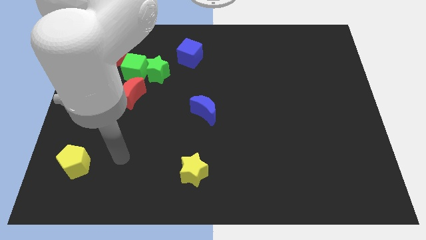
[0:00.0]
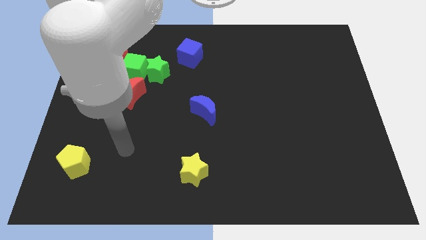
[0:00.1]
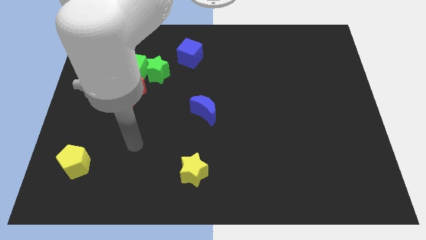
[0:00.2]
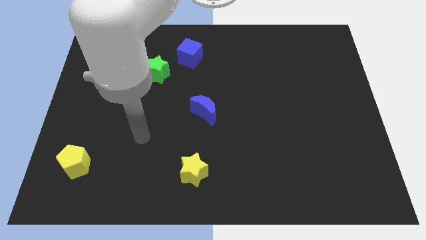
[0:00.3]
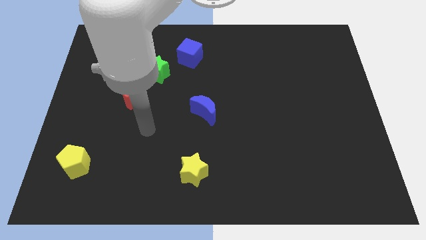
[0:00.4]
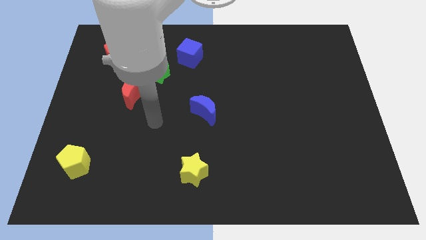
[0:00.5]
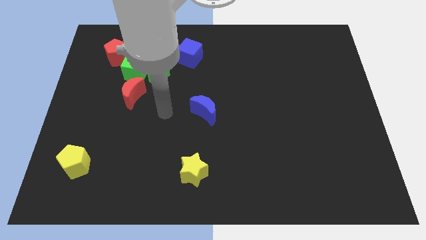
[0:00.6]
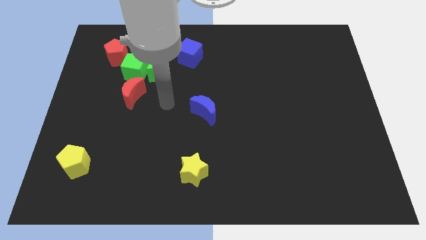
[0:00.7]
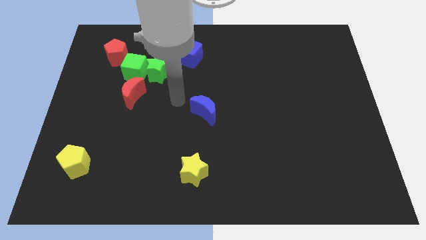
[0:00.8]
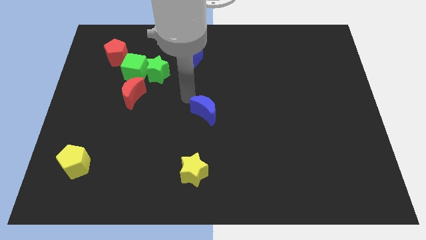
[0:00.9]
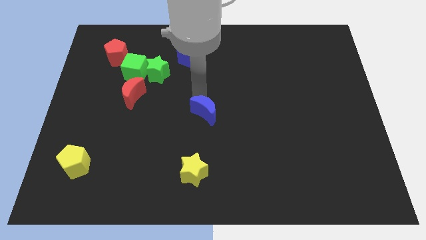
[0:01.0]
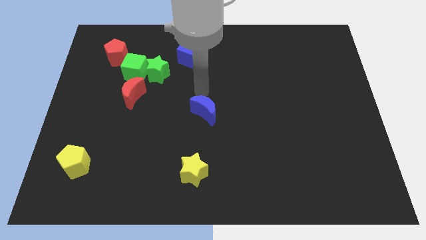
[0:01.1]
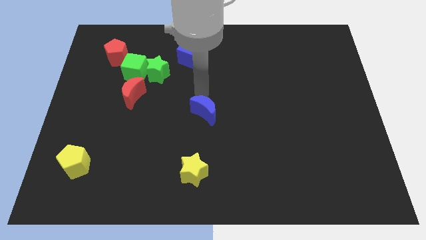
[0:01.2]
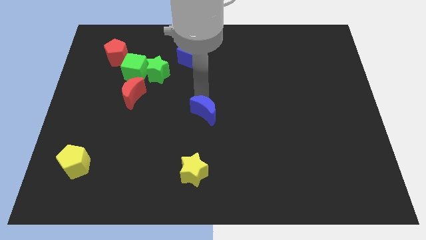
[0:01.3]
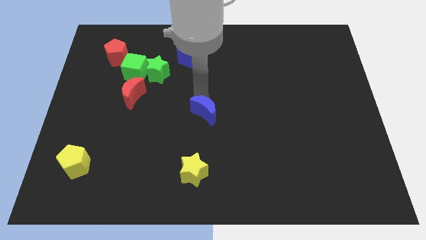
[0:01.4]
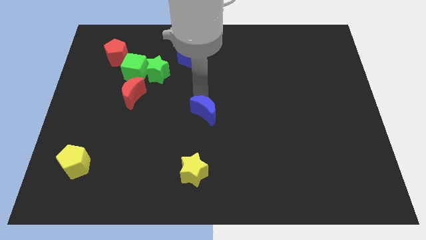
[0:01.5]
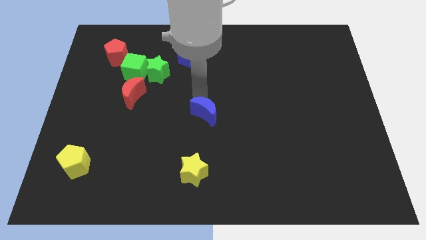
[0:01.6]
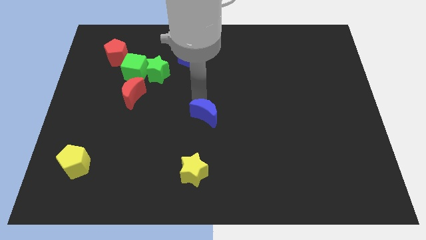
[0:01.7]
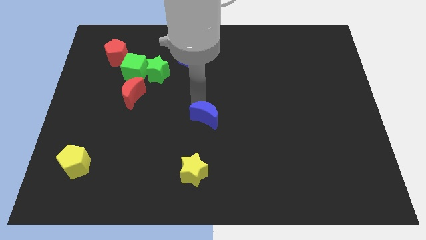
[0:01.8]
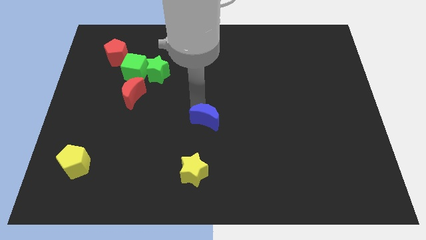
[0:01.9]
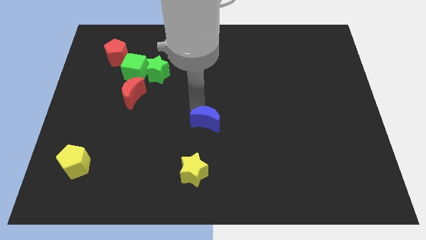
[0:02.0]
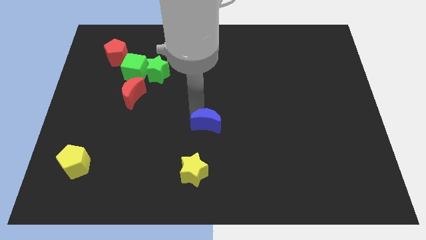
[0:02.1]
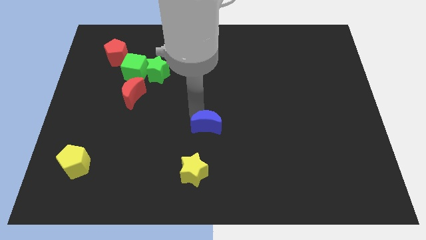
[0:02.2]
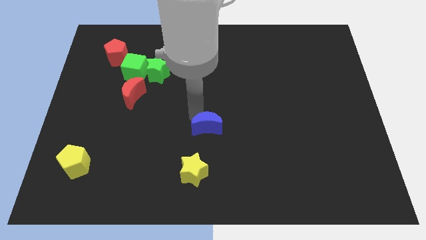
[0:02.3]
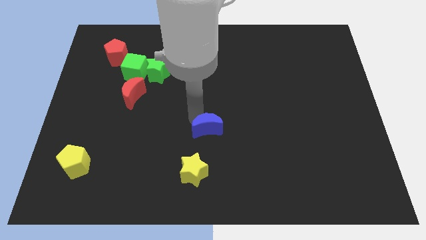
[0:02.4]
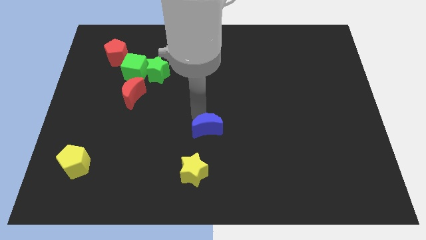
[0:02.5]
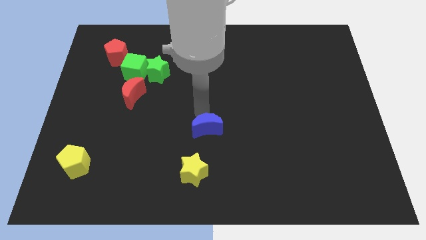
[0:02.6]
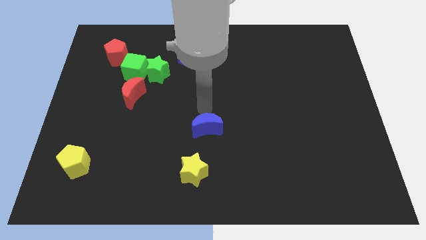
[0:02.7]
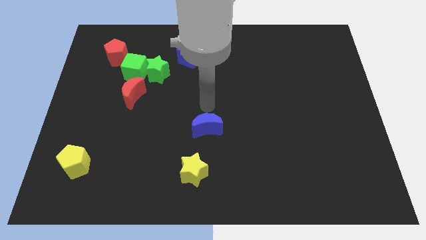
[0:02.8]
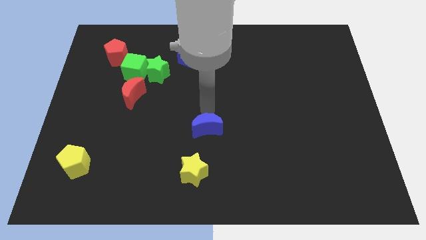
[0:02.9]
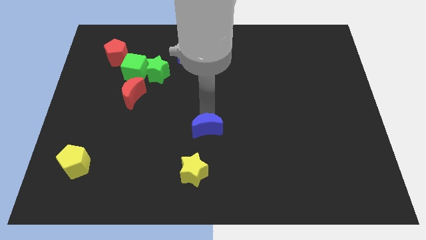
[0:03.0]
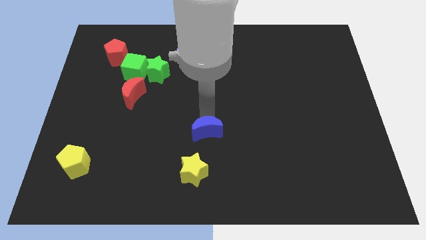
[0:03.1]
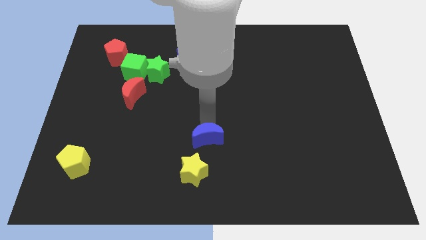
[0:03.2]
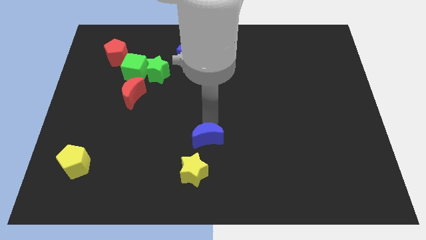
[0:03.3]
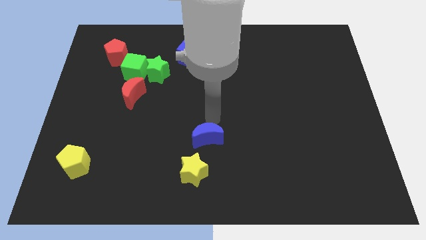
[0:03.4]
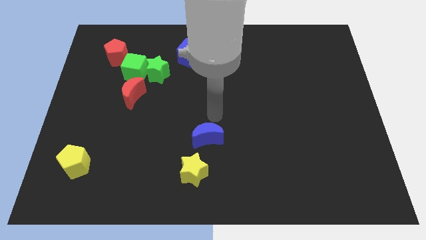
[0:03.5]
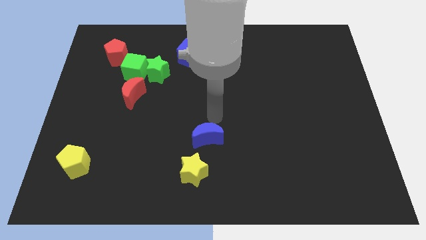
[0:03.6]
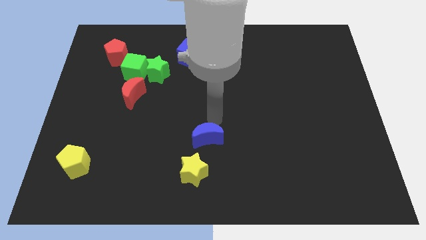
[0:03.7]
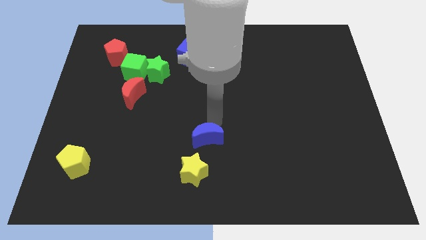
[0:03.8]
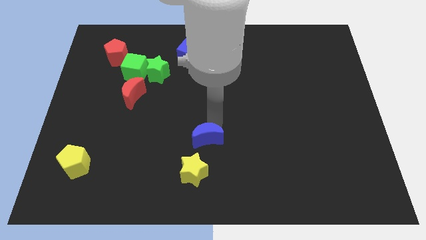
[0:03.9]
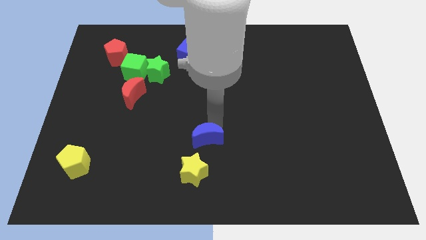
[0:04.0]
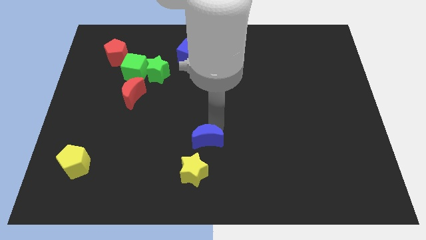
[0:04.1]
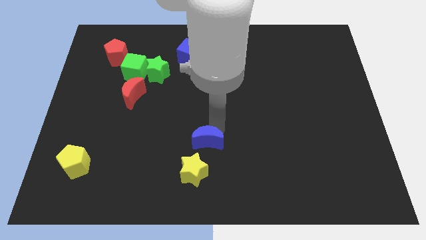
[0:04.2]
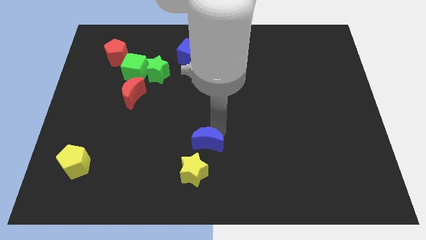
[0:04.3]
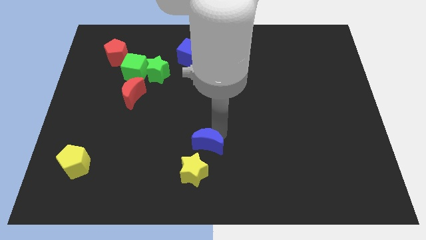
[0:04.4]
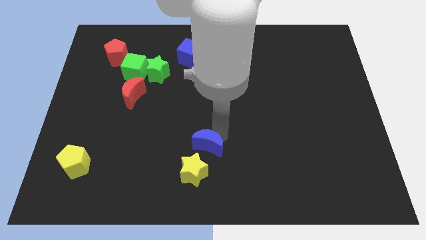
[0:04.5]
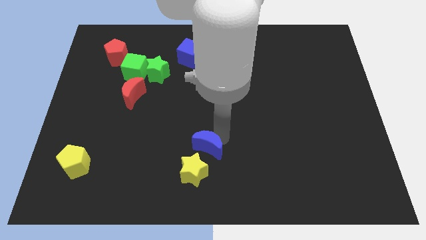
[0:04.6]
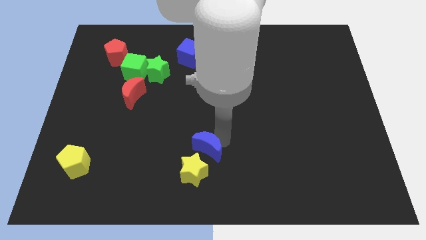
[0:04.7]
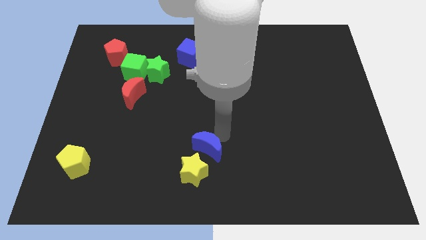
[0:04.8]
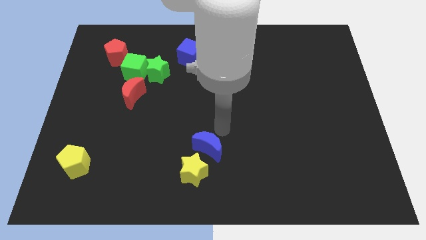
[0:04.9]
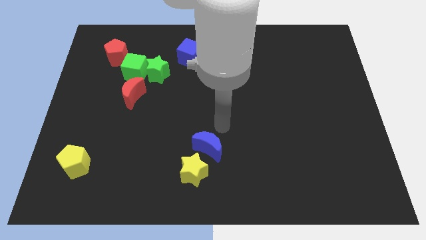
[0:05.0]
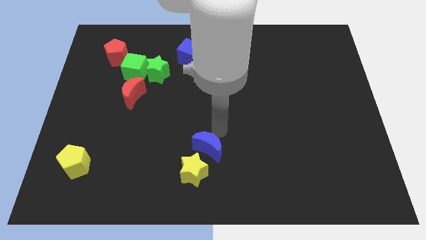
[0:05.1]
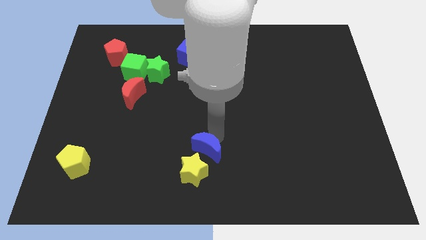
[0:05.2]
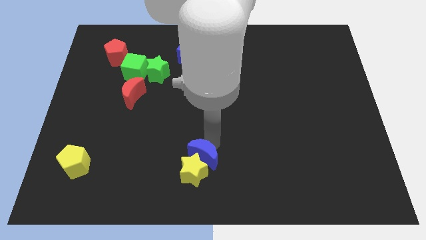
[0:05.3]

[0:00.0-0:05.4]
push the blue moon towards the yellow star

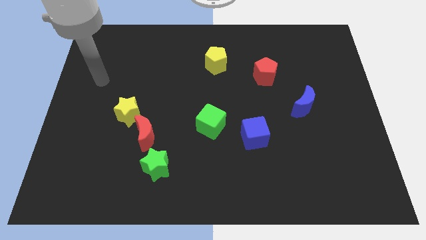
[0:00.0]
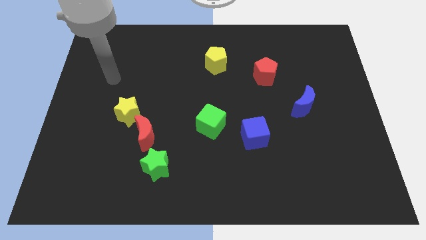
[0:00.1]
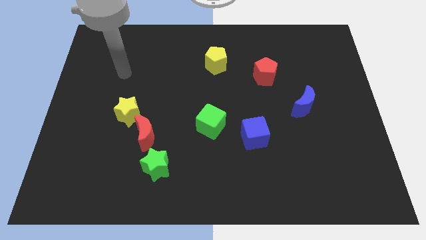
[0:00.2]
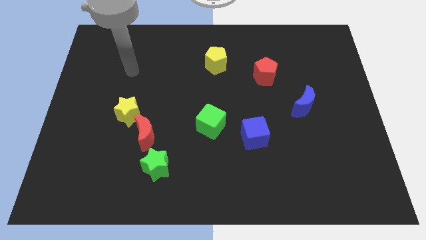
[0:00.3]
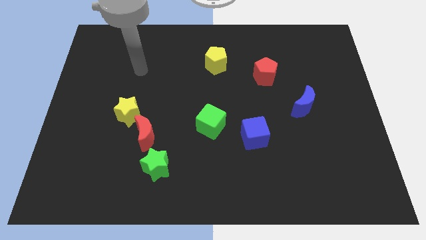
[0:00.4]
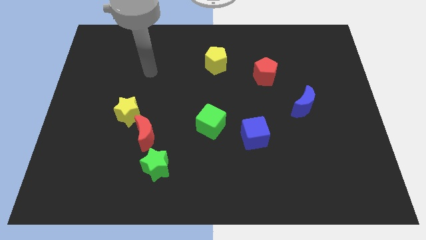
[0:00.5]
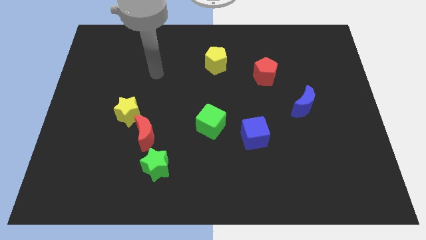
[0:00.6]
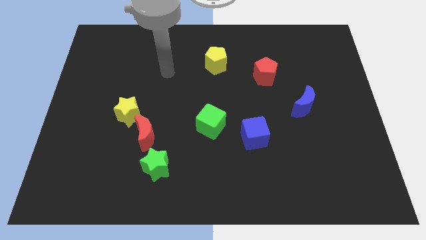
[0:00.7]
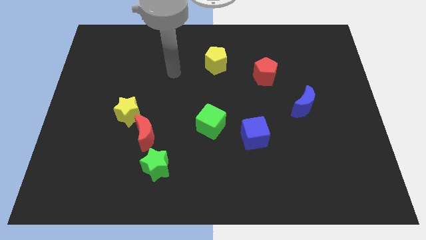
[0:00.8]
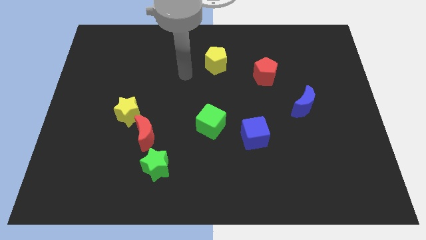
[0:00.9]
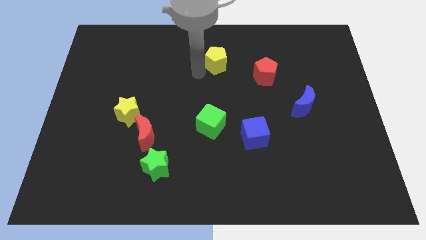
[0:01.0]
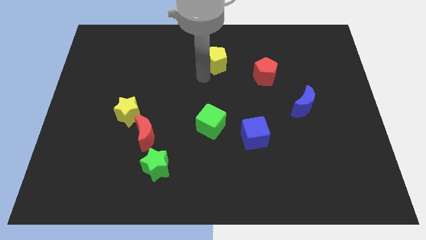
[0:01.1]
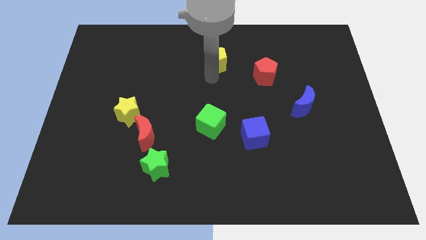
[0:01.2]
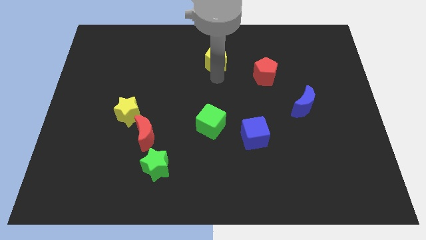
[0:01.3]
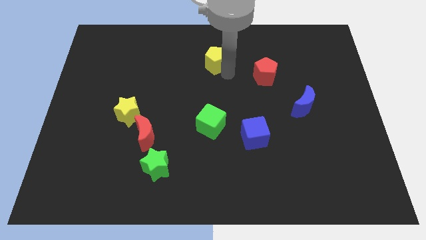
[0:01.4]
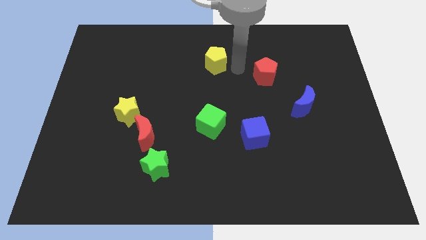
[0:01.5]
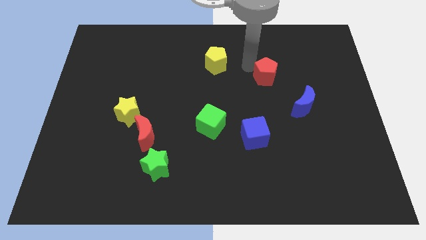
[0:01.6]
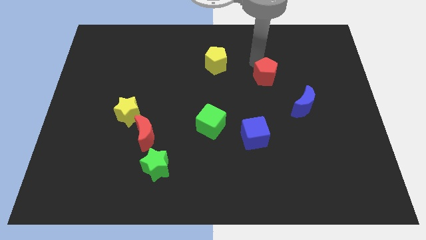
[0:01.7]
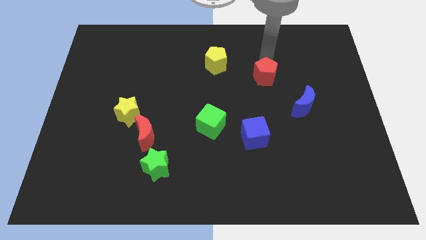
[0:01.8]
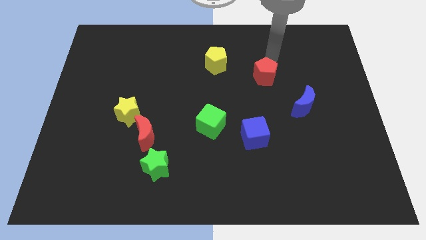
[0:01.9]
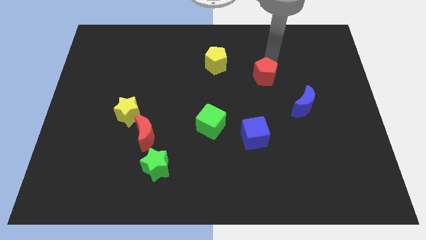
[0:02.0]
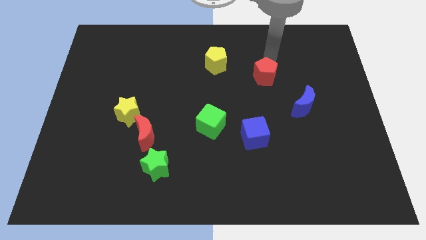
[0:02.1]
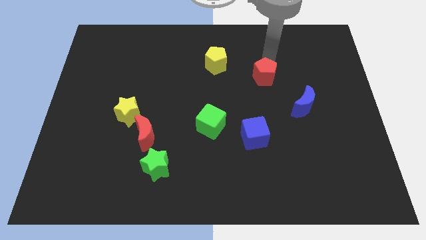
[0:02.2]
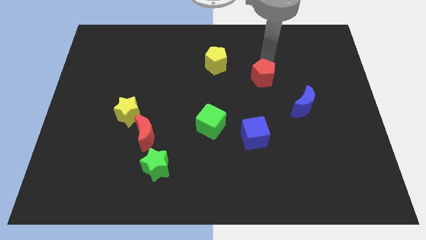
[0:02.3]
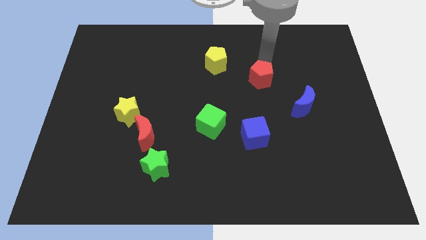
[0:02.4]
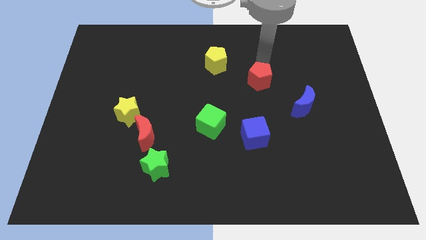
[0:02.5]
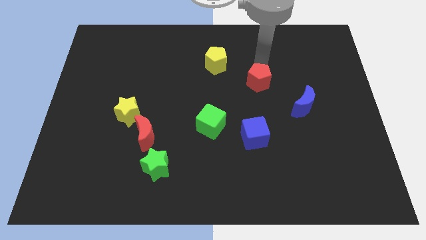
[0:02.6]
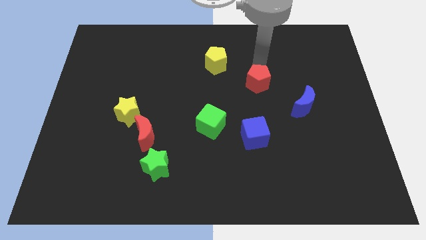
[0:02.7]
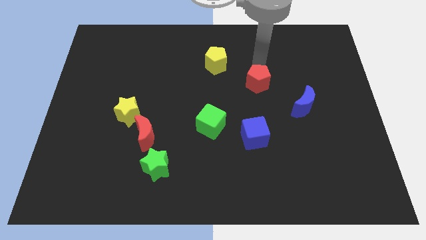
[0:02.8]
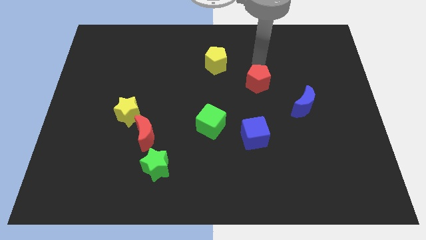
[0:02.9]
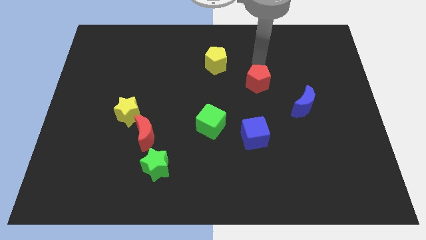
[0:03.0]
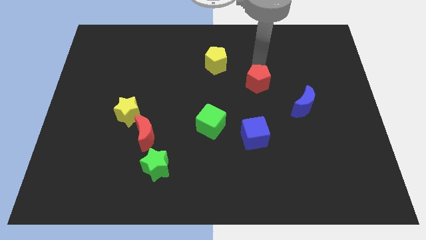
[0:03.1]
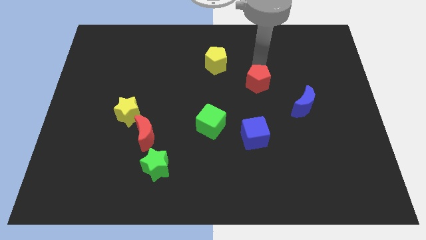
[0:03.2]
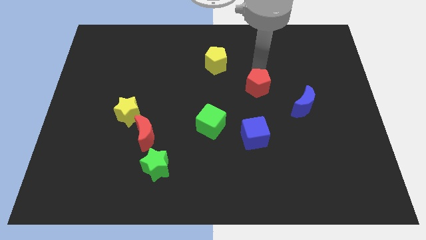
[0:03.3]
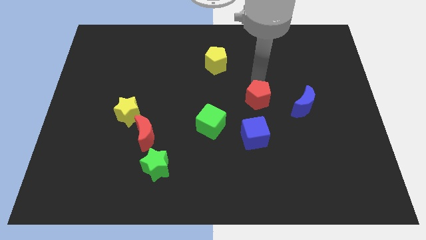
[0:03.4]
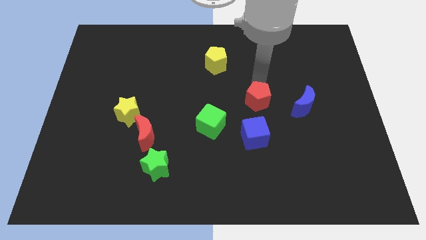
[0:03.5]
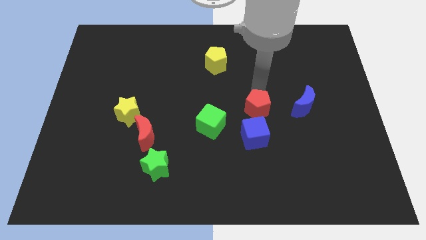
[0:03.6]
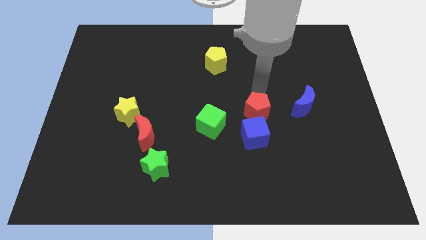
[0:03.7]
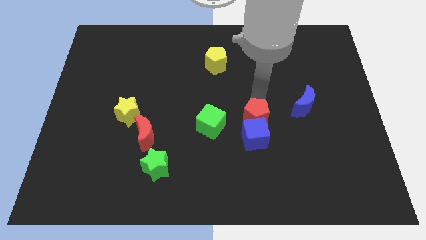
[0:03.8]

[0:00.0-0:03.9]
put the red pentagon close to the blue cube
